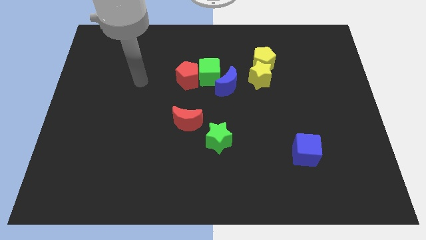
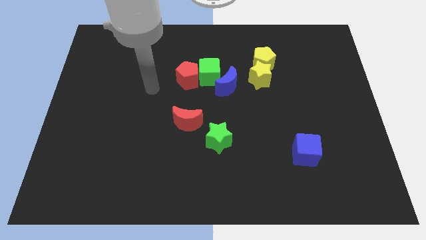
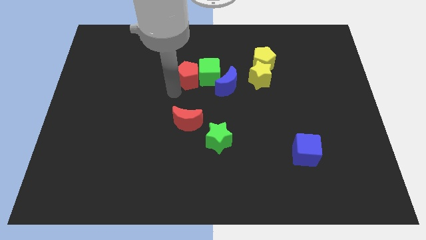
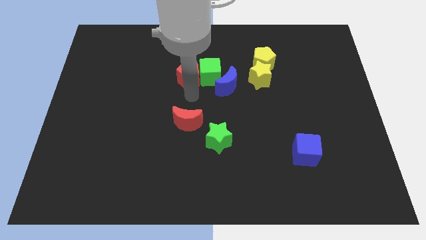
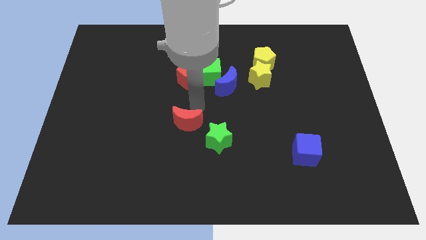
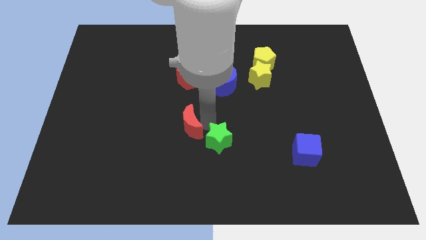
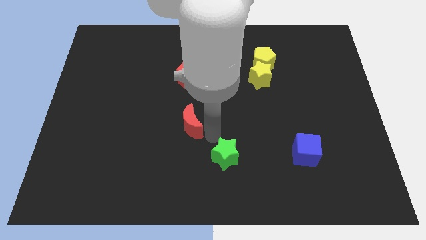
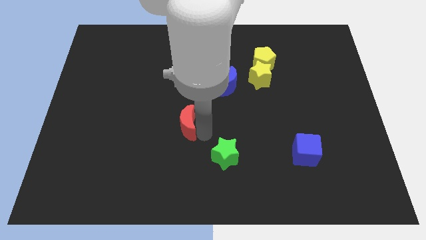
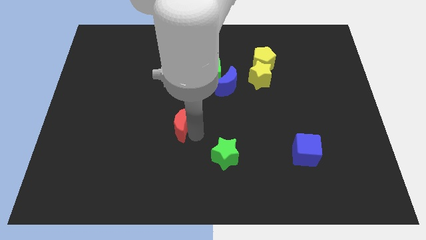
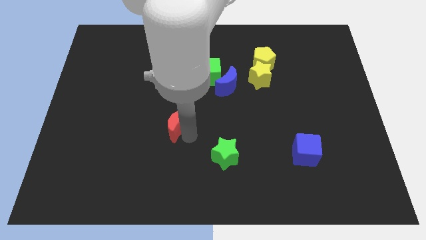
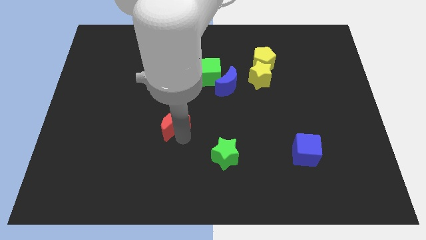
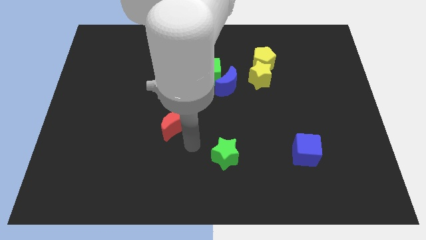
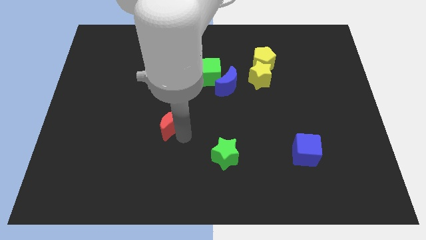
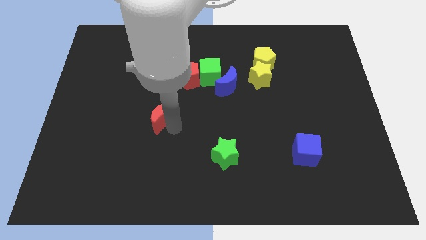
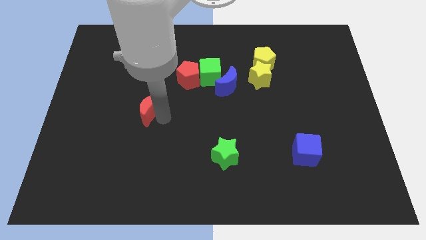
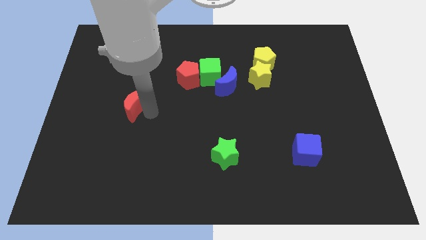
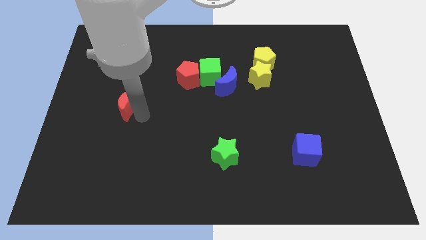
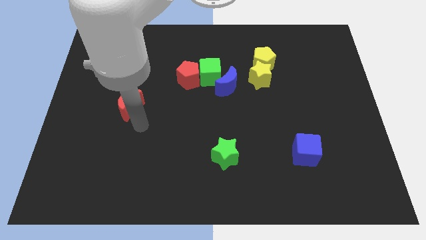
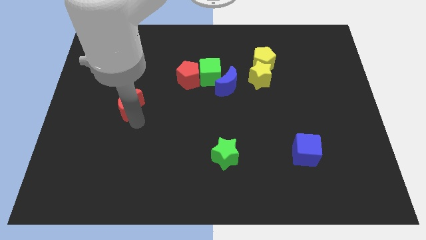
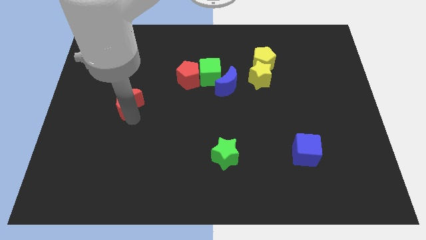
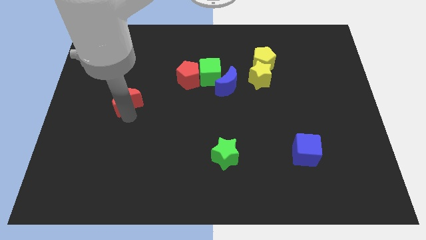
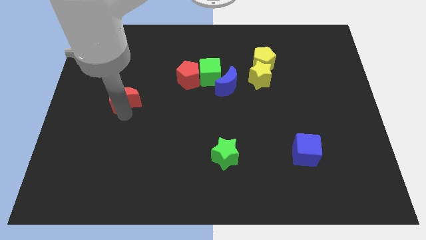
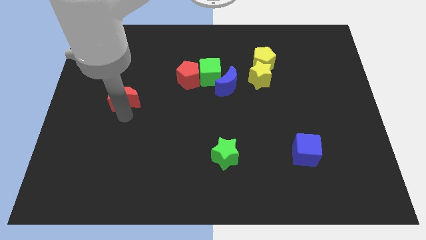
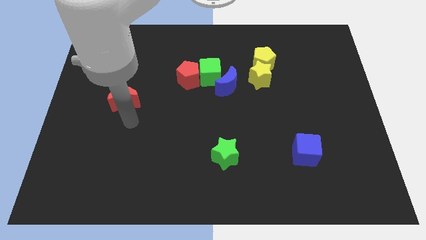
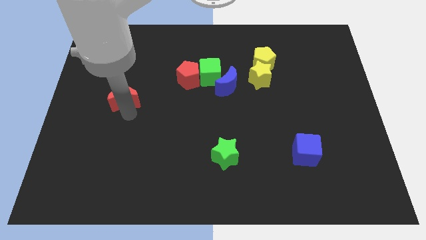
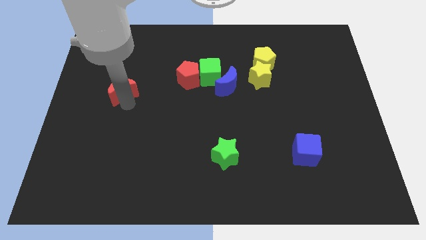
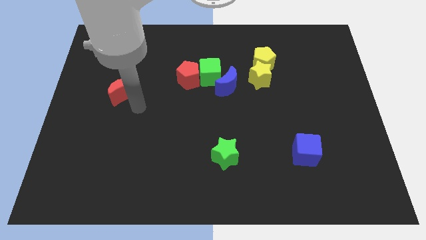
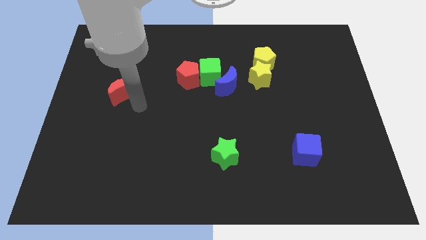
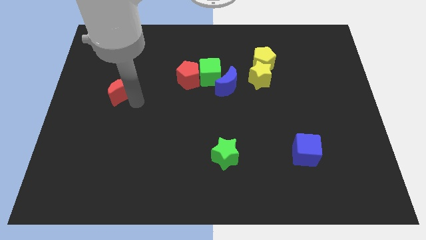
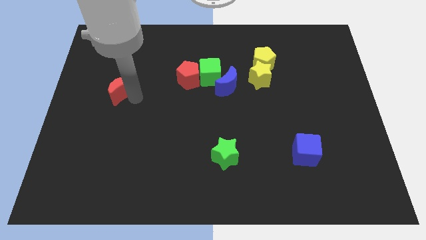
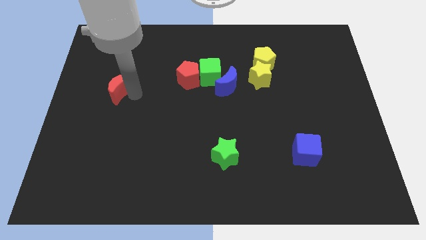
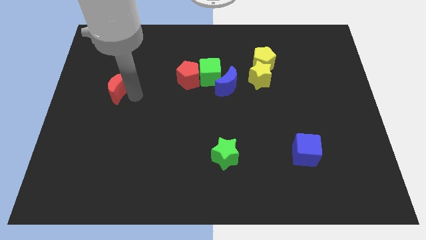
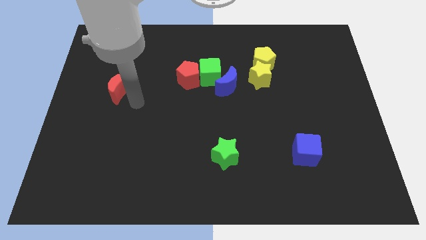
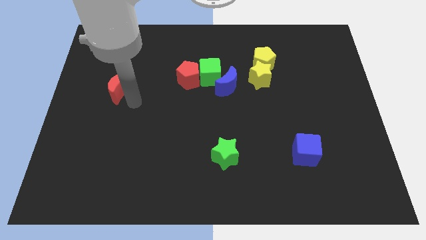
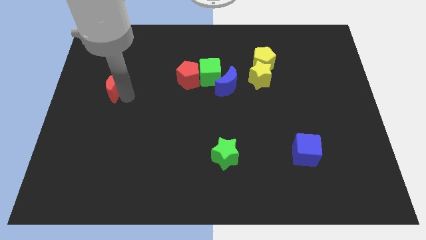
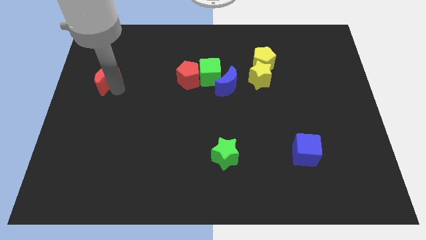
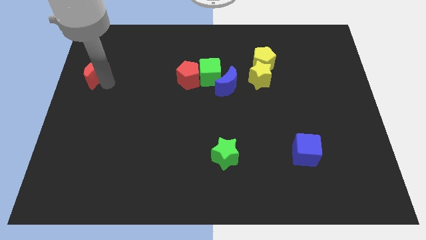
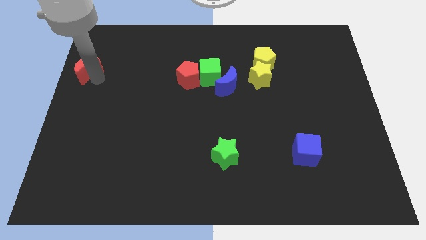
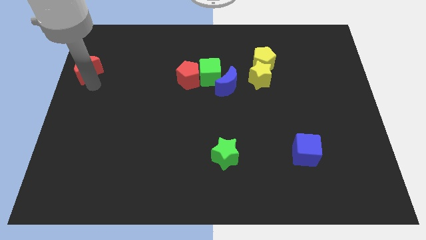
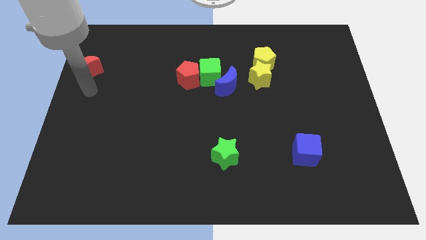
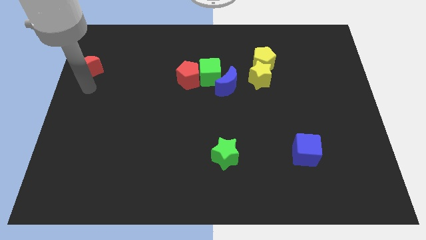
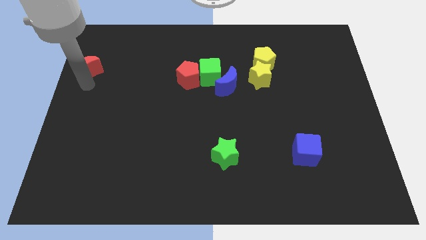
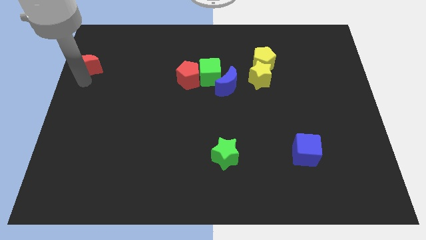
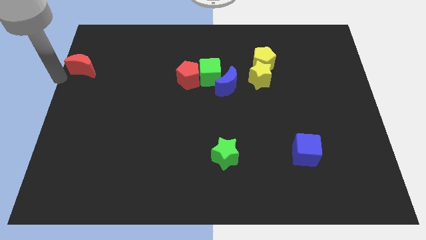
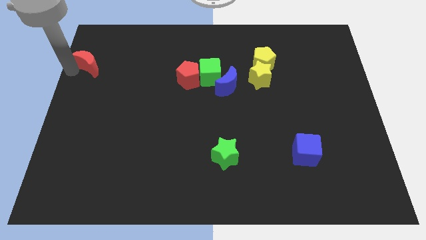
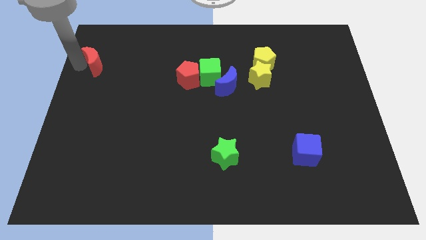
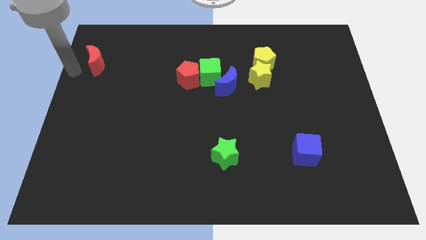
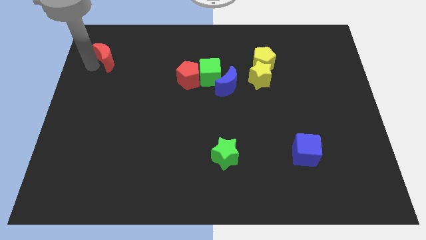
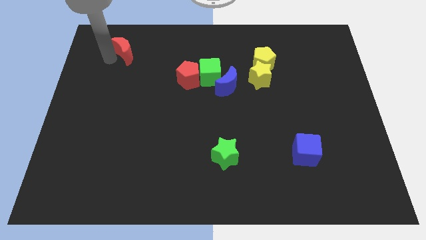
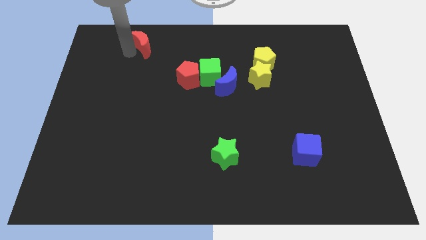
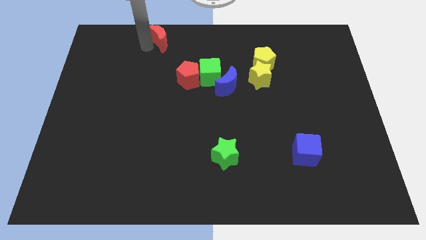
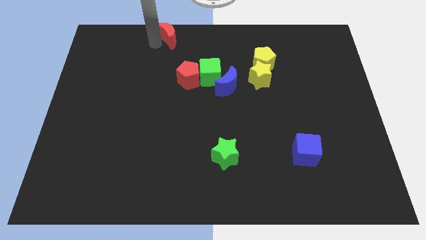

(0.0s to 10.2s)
slide the red moon to the top side
